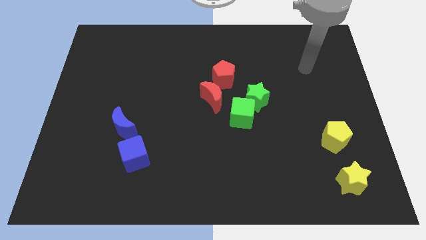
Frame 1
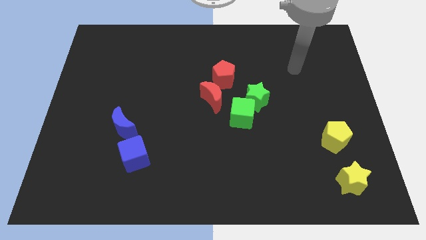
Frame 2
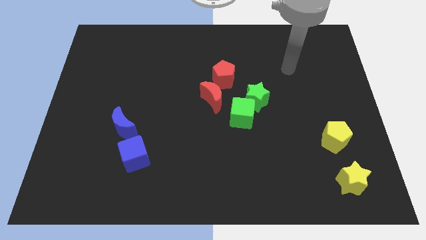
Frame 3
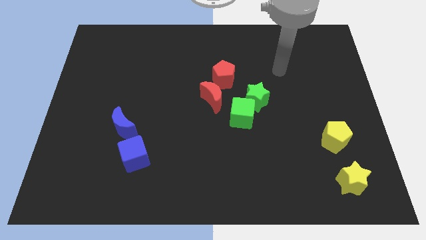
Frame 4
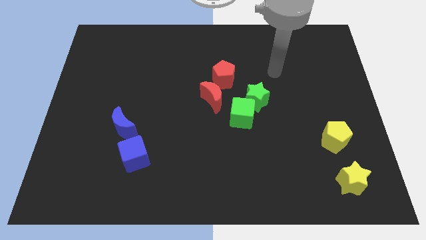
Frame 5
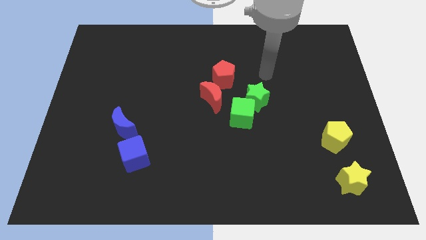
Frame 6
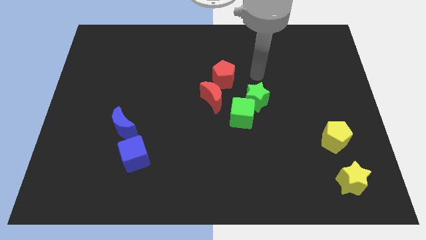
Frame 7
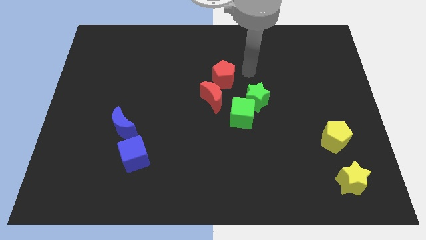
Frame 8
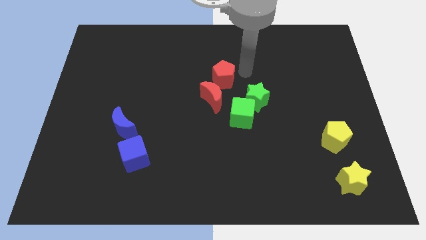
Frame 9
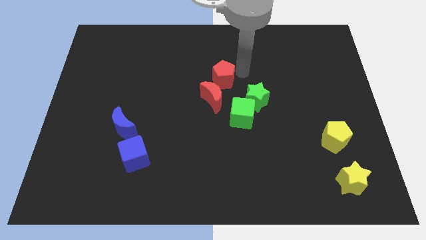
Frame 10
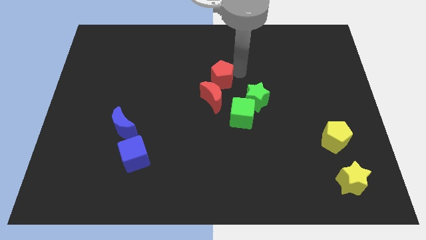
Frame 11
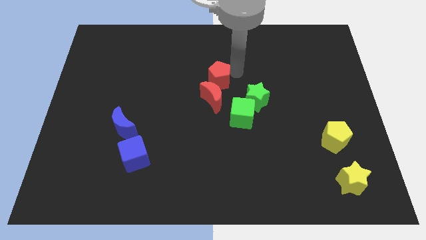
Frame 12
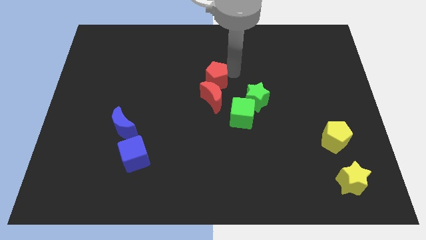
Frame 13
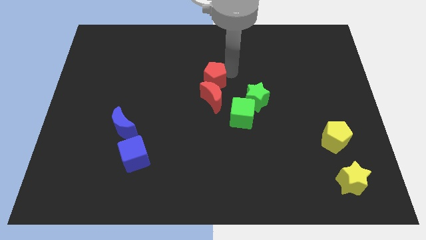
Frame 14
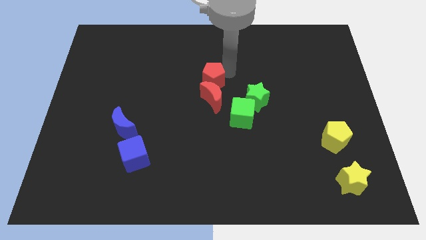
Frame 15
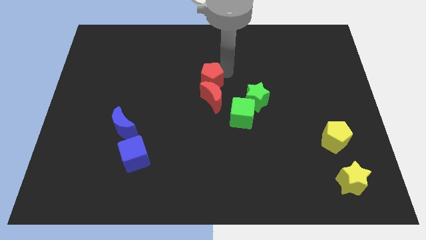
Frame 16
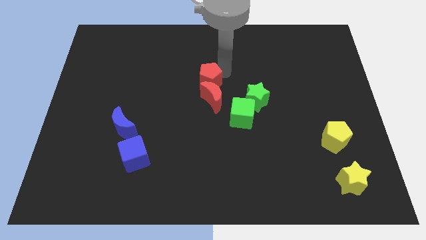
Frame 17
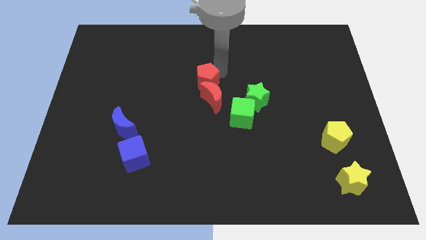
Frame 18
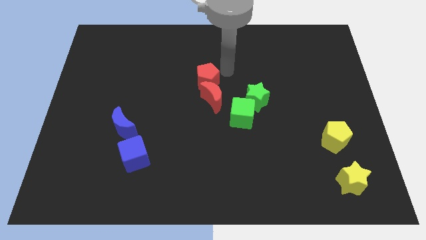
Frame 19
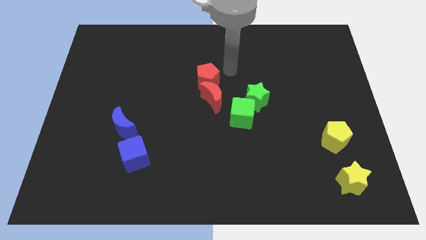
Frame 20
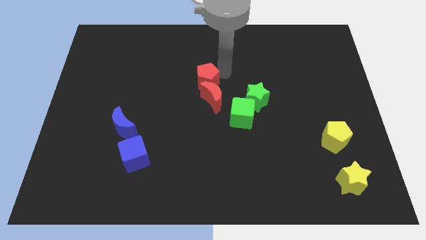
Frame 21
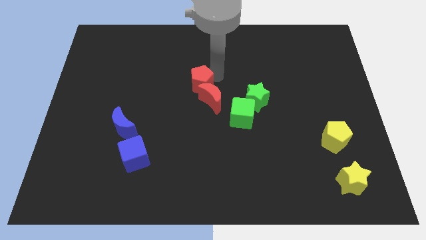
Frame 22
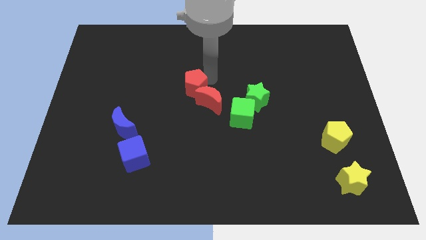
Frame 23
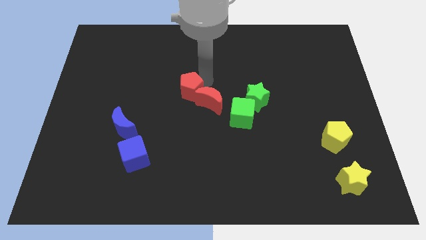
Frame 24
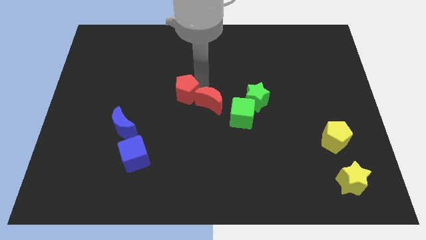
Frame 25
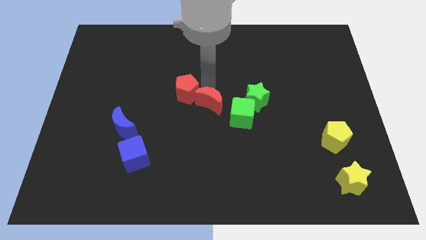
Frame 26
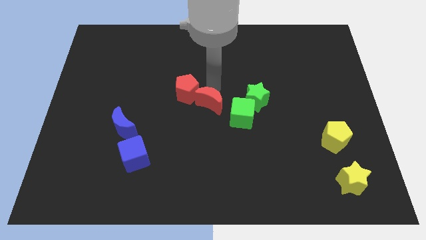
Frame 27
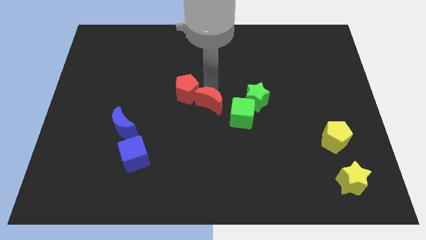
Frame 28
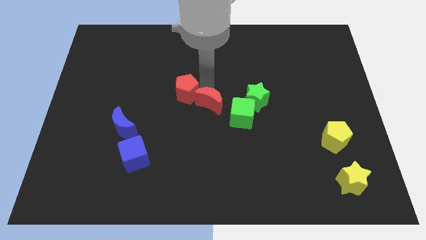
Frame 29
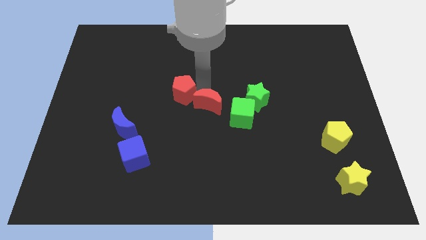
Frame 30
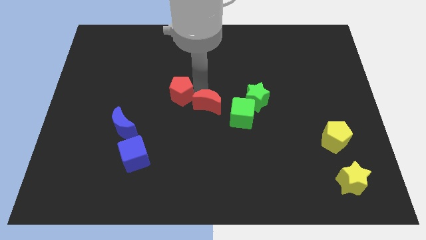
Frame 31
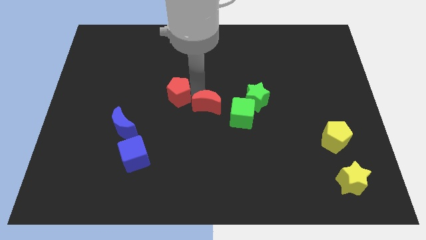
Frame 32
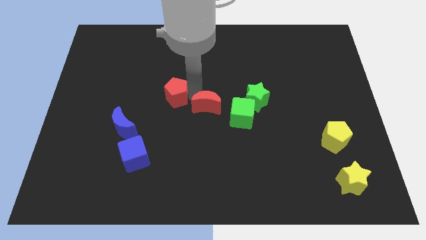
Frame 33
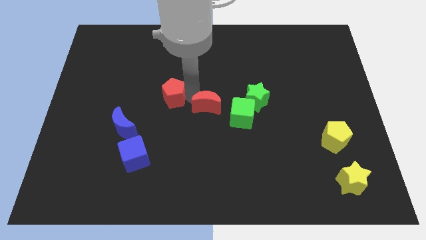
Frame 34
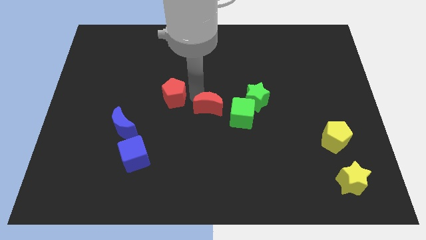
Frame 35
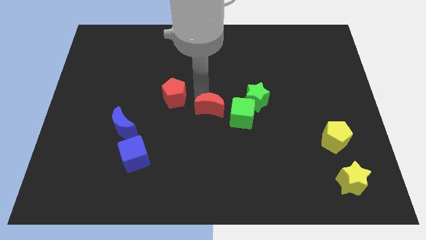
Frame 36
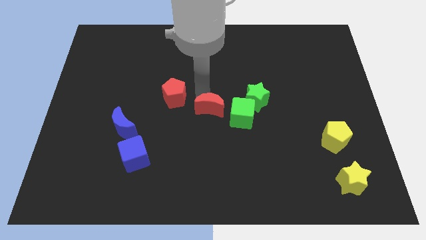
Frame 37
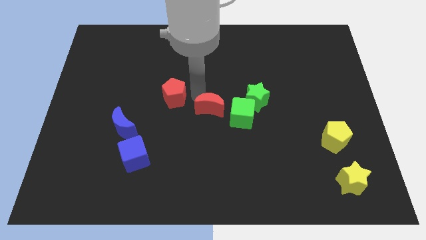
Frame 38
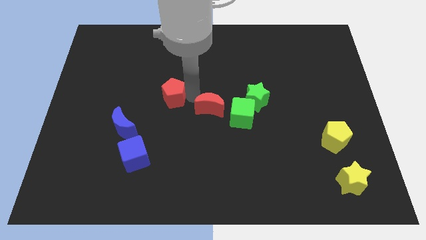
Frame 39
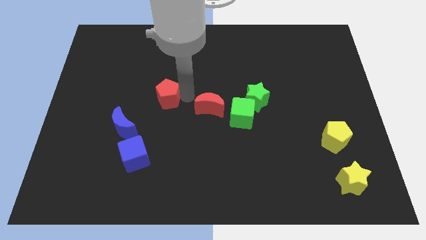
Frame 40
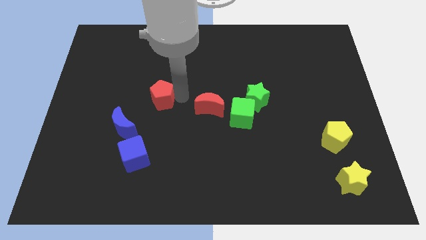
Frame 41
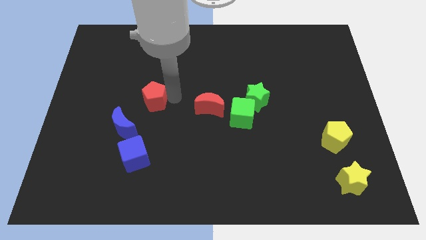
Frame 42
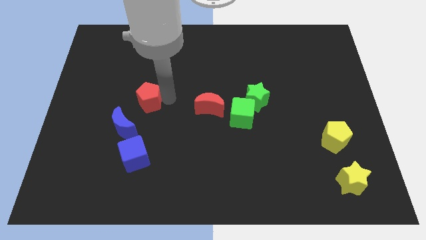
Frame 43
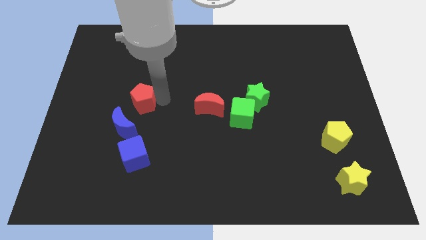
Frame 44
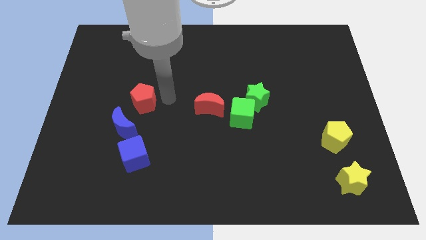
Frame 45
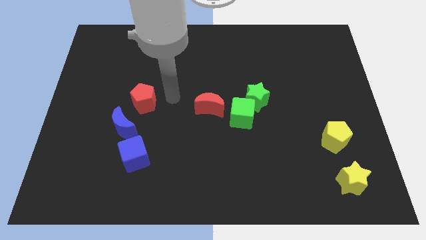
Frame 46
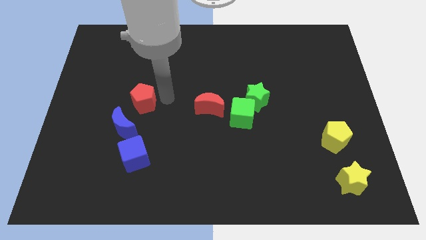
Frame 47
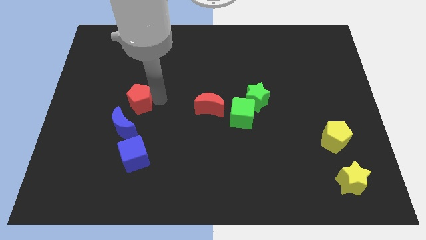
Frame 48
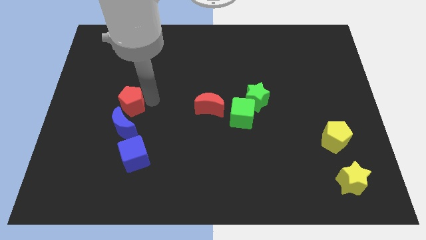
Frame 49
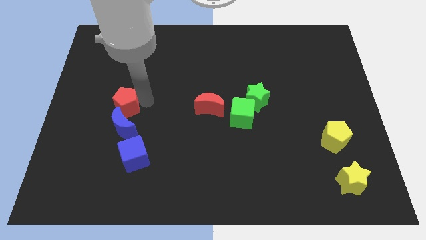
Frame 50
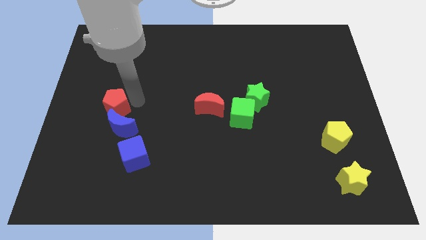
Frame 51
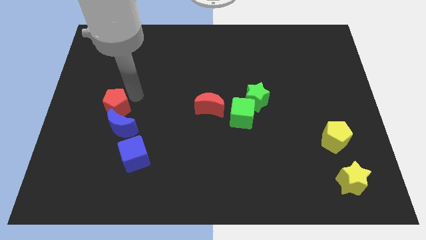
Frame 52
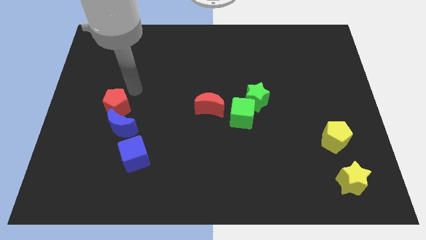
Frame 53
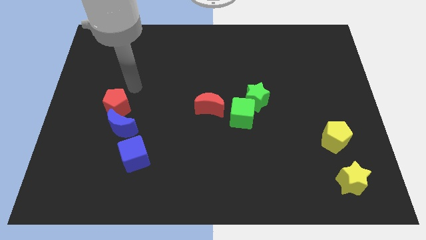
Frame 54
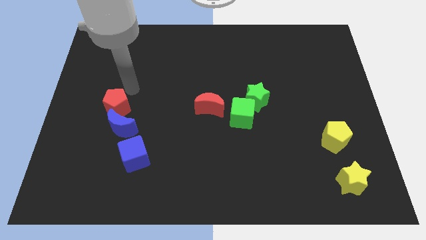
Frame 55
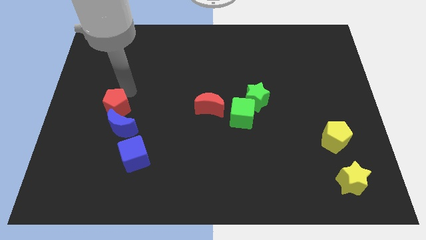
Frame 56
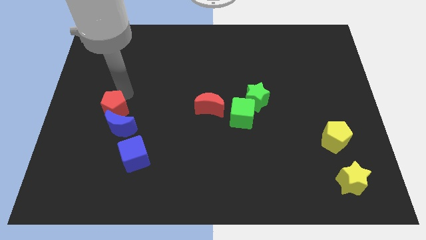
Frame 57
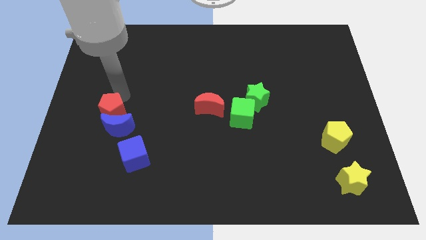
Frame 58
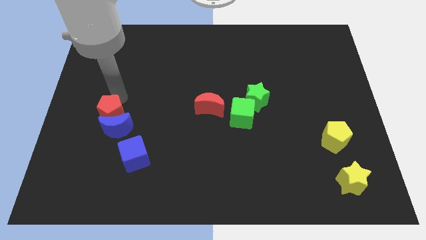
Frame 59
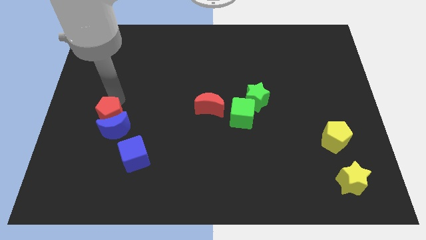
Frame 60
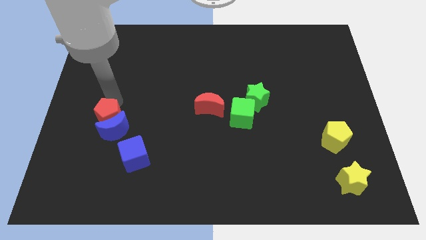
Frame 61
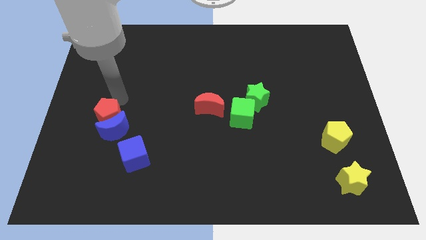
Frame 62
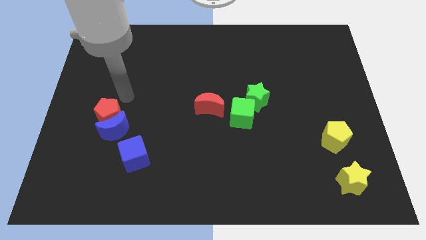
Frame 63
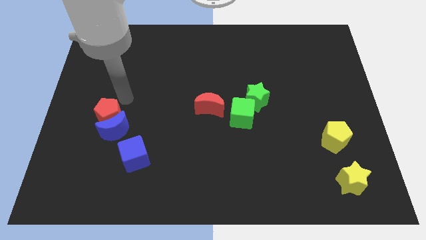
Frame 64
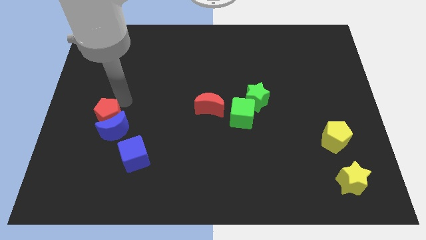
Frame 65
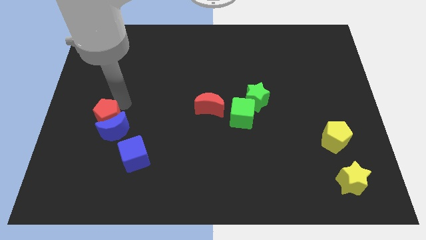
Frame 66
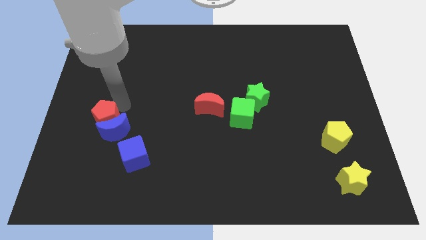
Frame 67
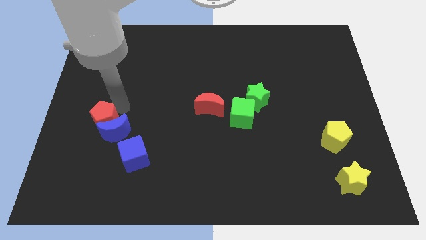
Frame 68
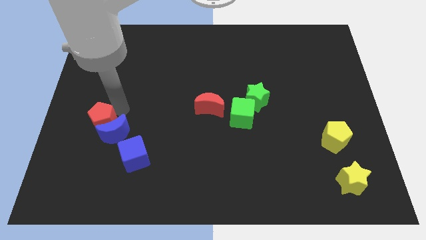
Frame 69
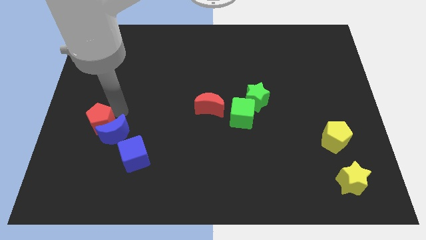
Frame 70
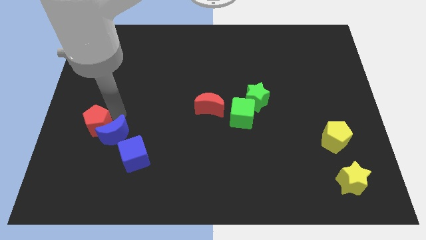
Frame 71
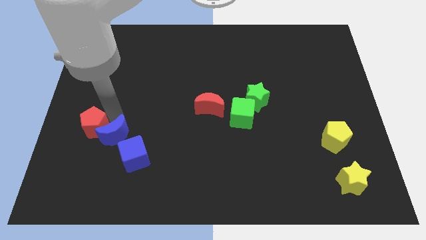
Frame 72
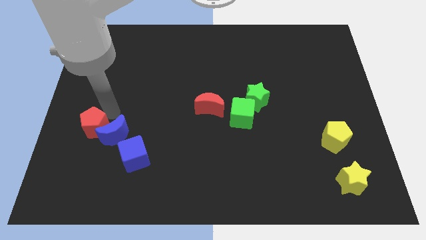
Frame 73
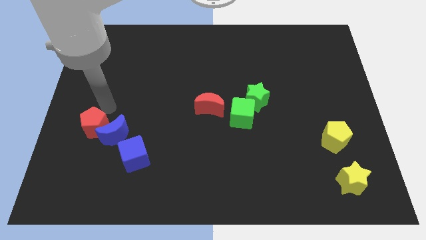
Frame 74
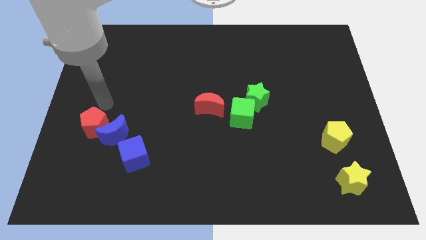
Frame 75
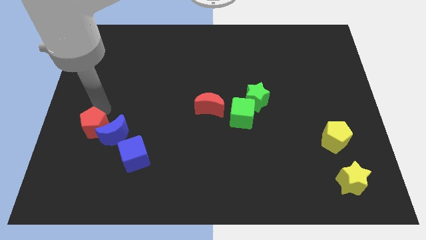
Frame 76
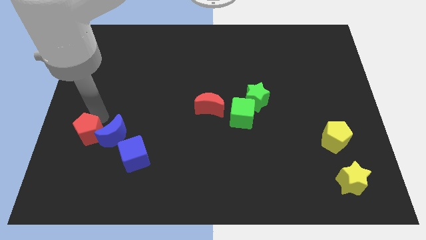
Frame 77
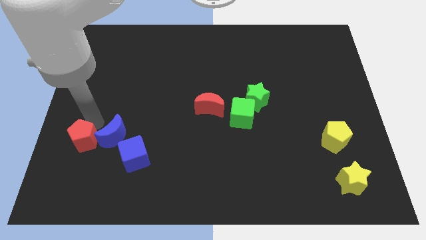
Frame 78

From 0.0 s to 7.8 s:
slide the red pentagon left of the blue cube
